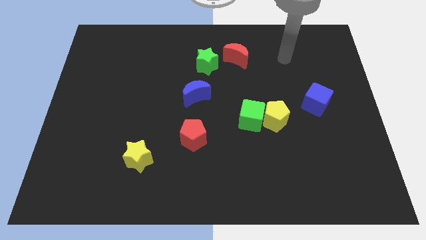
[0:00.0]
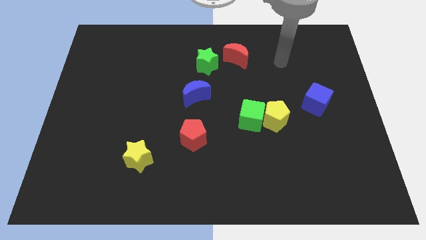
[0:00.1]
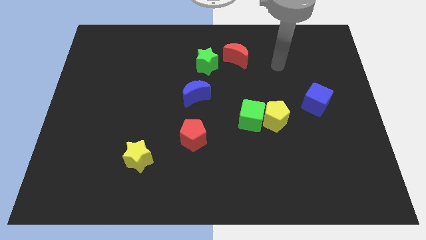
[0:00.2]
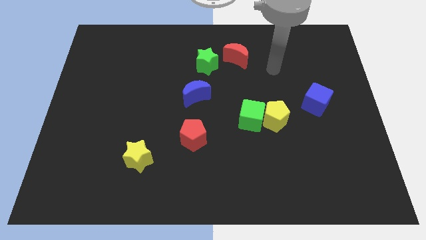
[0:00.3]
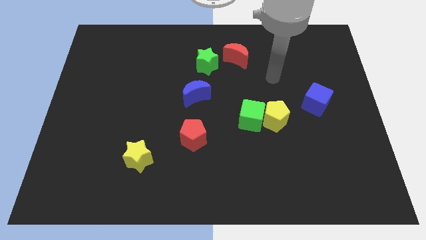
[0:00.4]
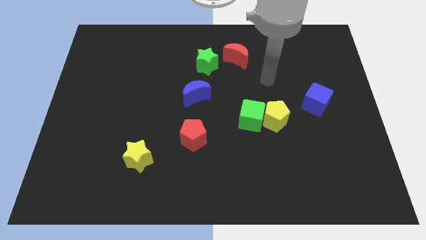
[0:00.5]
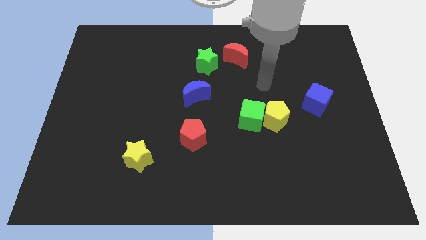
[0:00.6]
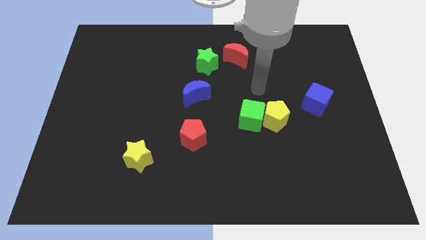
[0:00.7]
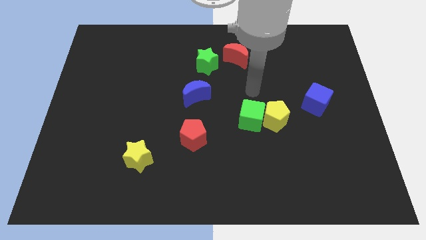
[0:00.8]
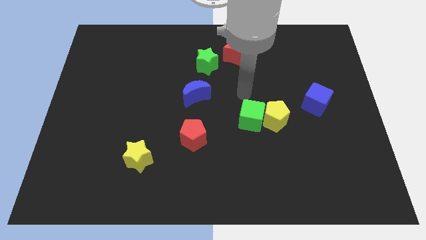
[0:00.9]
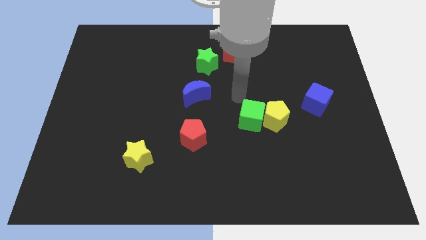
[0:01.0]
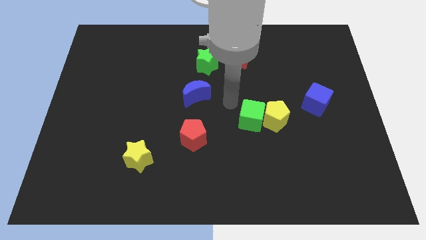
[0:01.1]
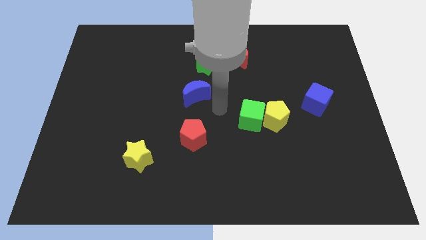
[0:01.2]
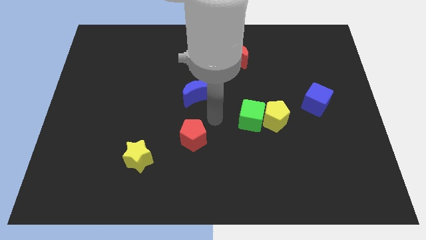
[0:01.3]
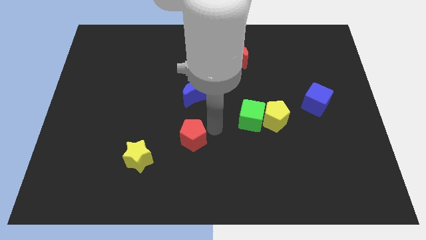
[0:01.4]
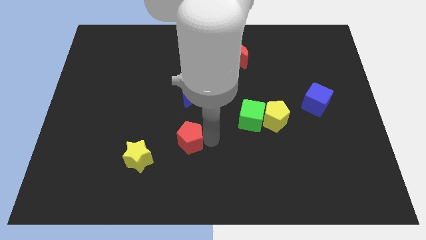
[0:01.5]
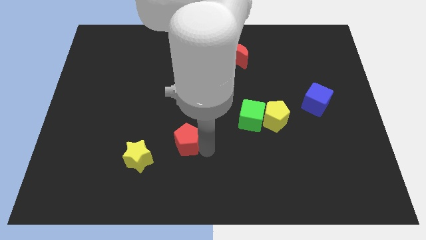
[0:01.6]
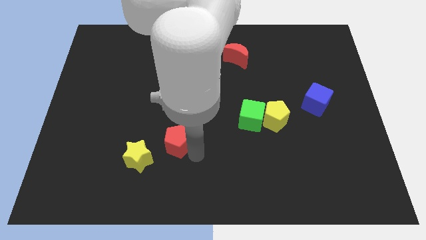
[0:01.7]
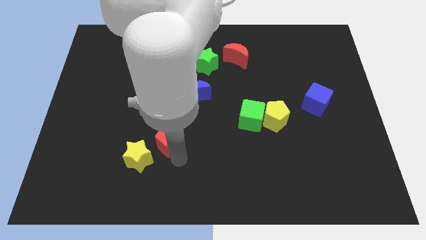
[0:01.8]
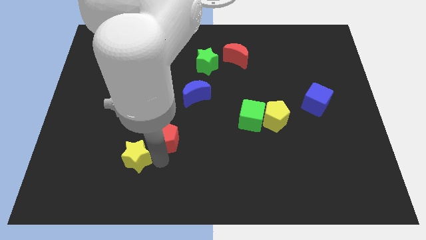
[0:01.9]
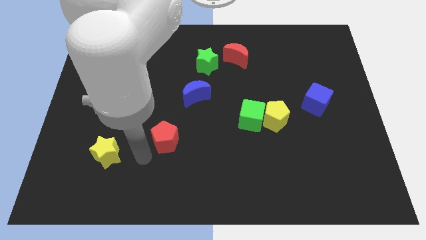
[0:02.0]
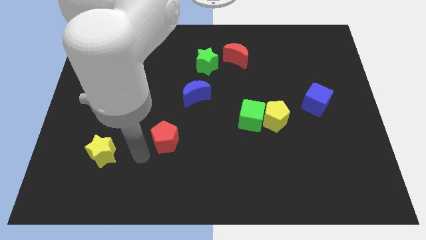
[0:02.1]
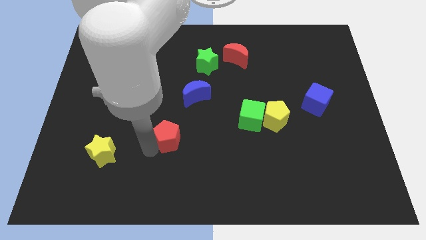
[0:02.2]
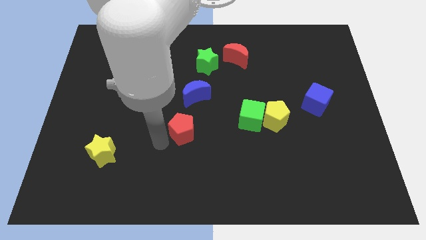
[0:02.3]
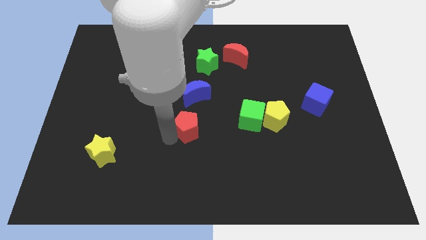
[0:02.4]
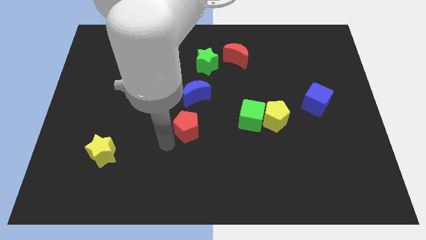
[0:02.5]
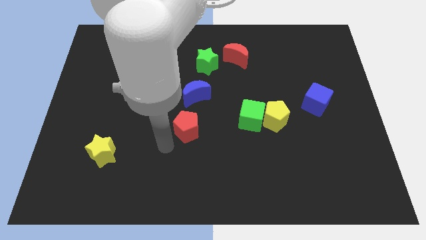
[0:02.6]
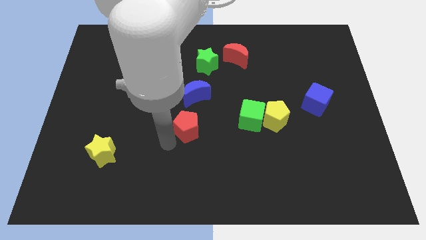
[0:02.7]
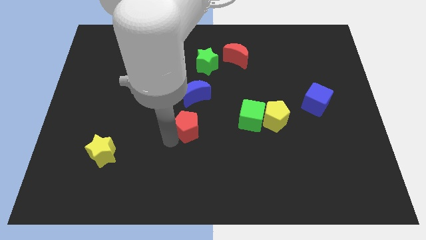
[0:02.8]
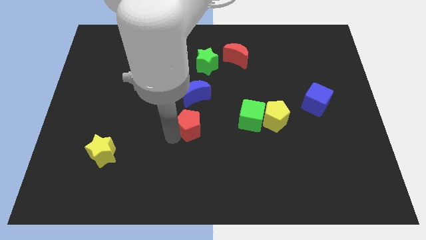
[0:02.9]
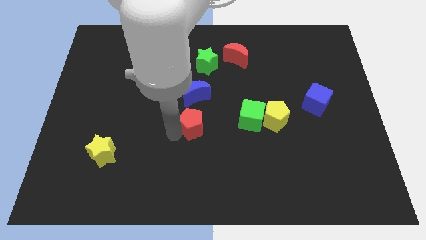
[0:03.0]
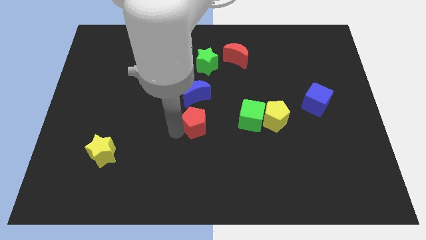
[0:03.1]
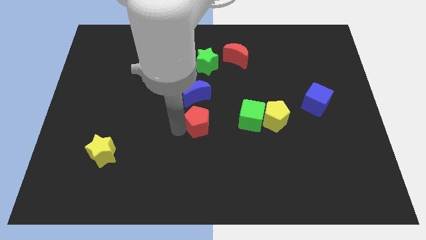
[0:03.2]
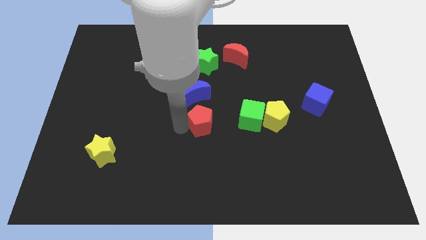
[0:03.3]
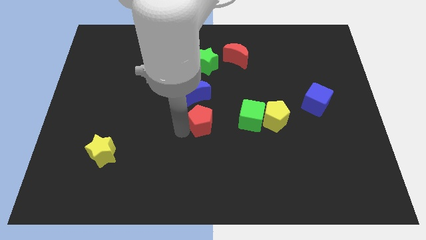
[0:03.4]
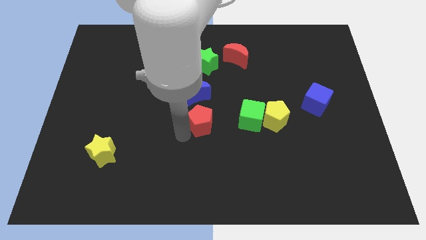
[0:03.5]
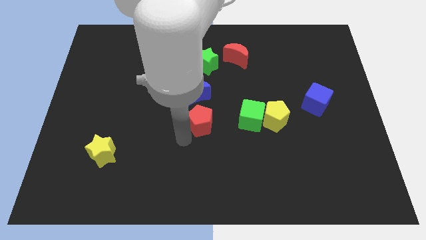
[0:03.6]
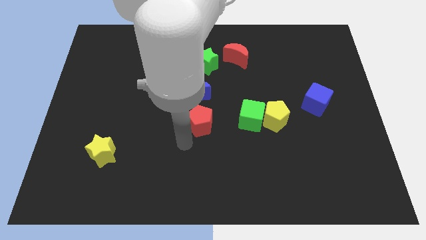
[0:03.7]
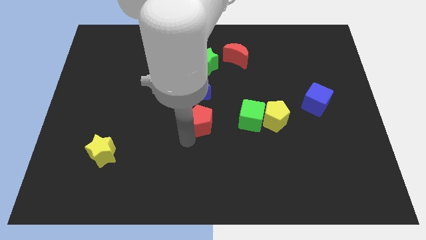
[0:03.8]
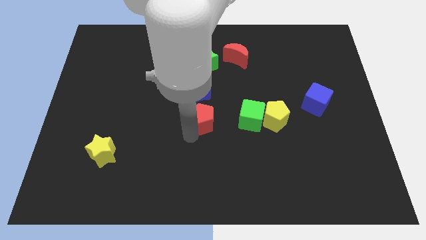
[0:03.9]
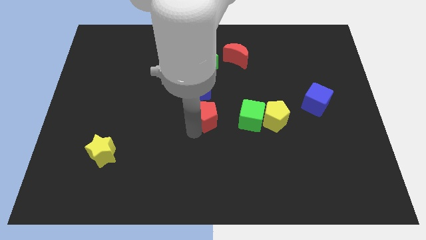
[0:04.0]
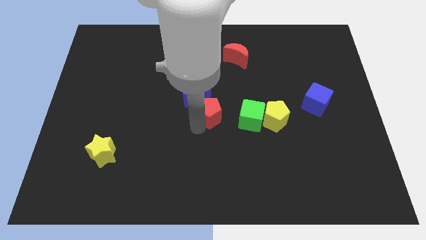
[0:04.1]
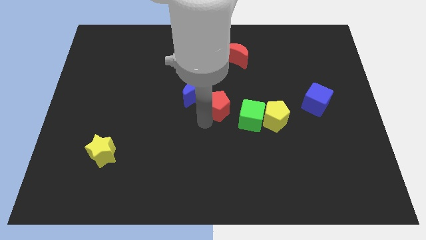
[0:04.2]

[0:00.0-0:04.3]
move the red pentagon upwards somewhat

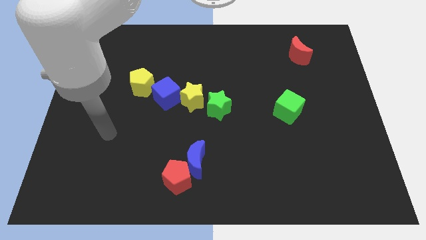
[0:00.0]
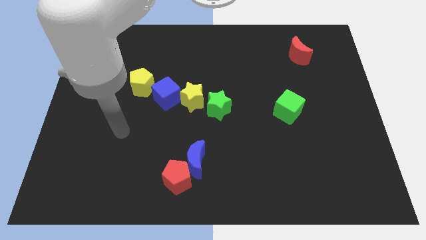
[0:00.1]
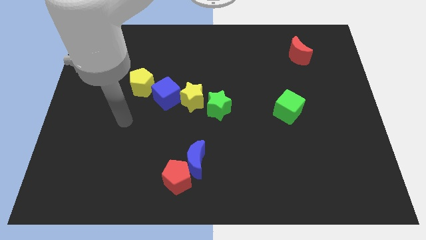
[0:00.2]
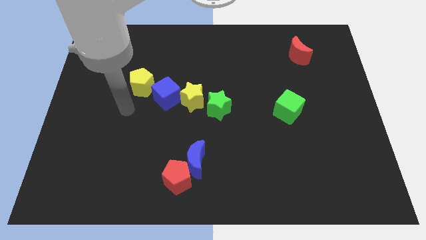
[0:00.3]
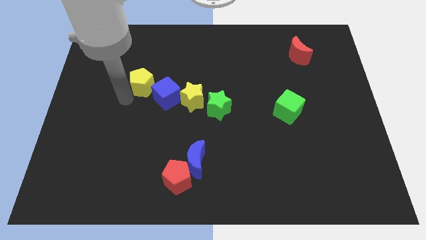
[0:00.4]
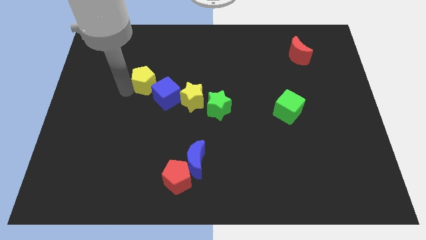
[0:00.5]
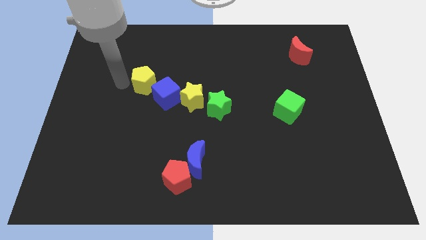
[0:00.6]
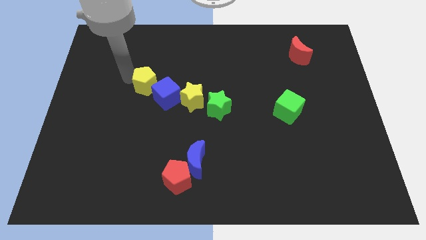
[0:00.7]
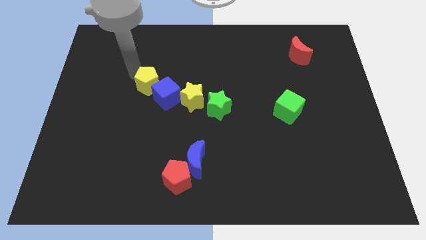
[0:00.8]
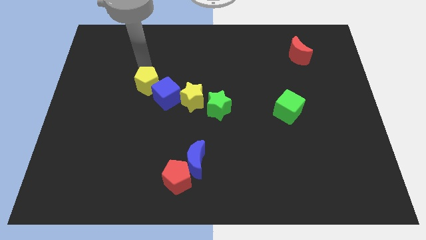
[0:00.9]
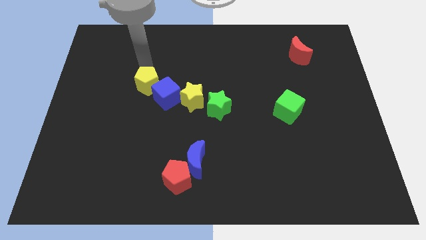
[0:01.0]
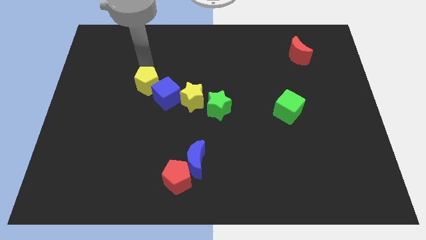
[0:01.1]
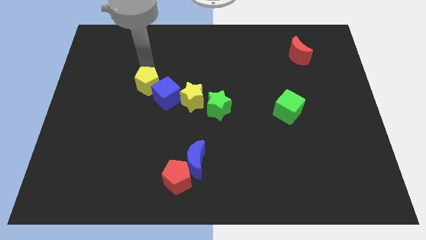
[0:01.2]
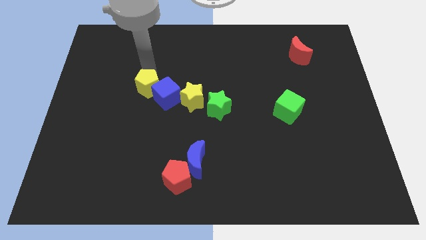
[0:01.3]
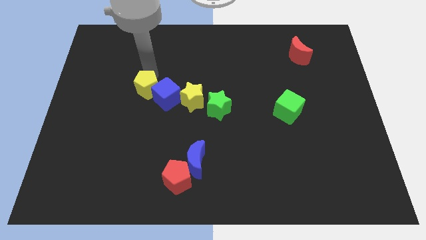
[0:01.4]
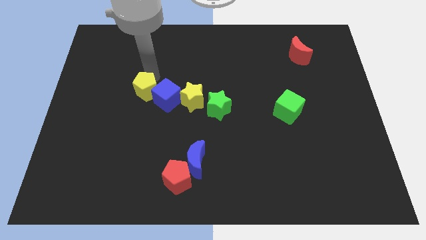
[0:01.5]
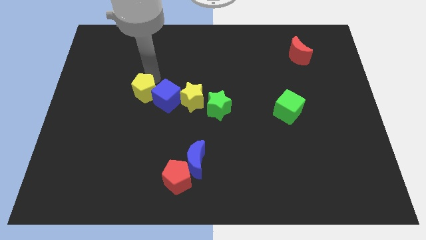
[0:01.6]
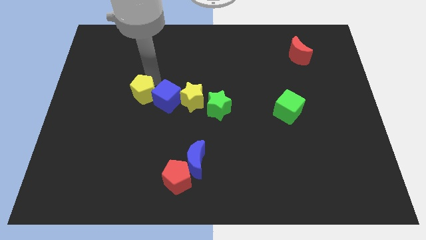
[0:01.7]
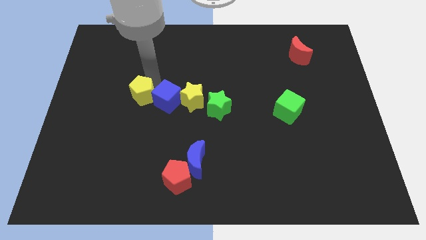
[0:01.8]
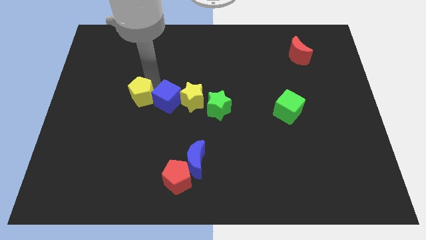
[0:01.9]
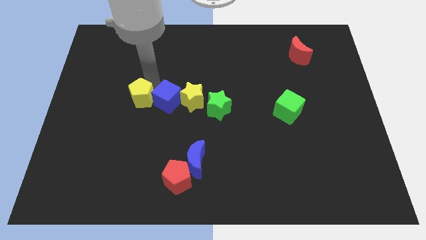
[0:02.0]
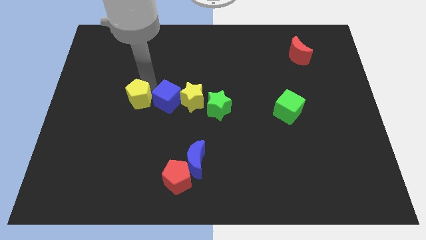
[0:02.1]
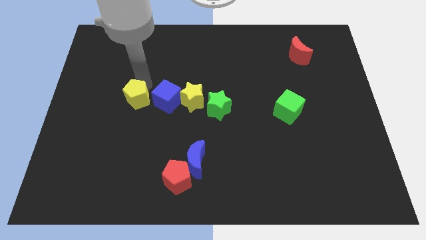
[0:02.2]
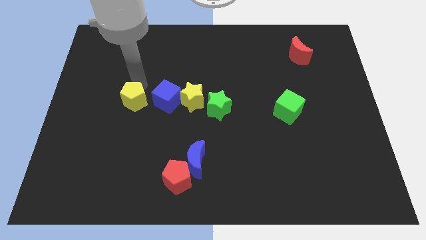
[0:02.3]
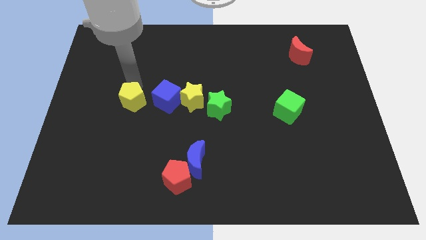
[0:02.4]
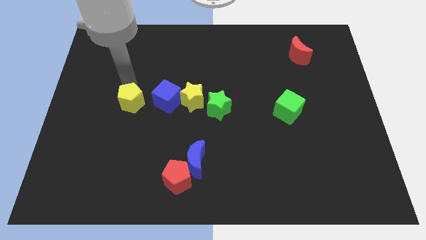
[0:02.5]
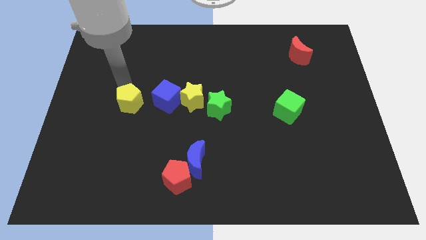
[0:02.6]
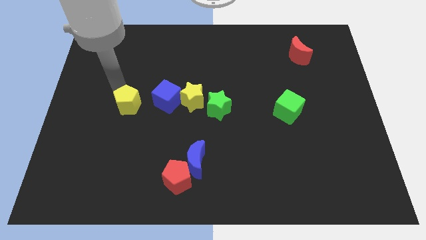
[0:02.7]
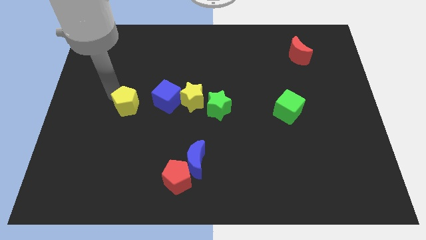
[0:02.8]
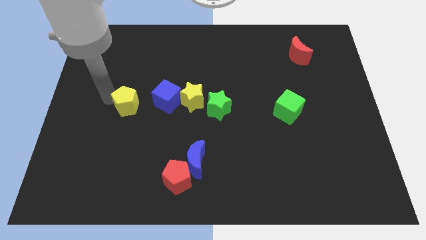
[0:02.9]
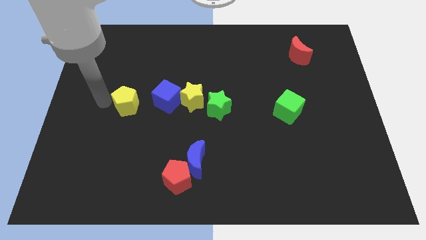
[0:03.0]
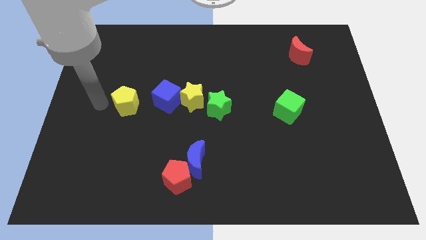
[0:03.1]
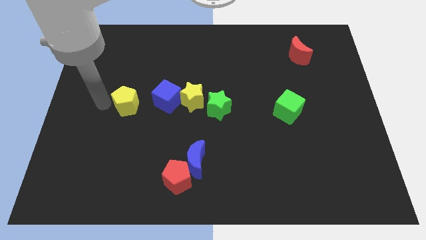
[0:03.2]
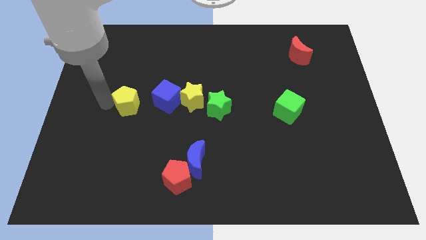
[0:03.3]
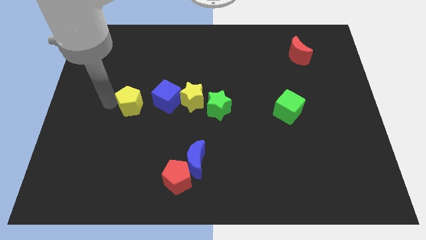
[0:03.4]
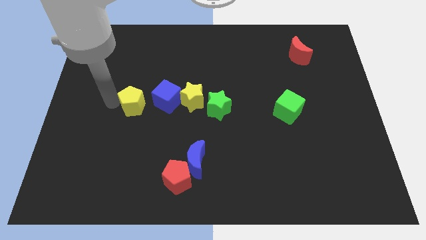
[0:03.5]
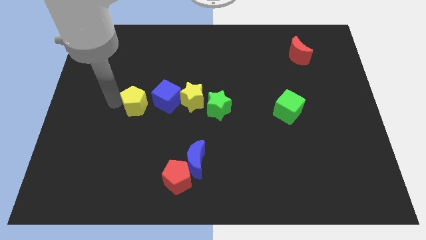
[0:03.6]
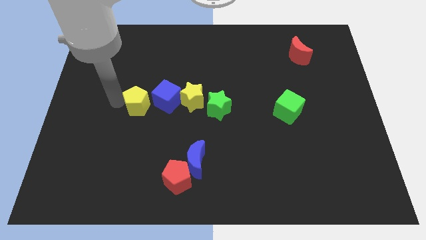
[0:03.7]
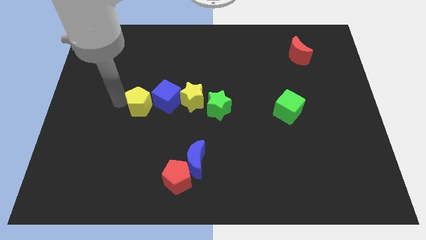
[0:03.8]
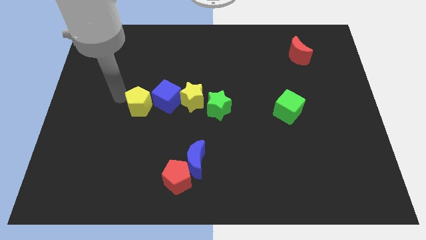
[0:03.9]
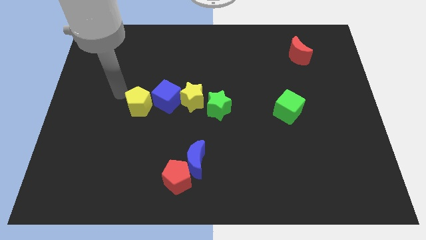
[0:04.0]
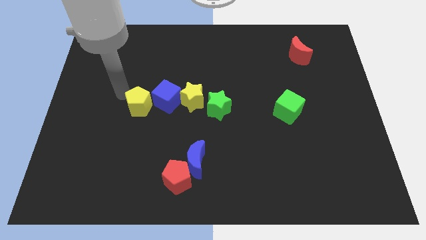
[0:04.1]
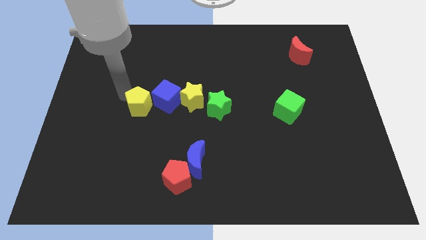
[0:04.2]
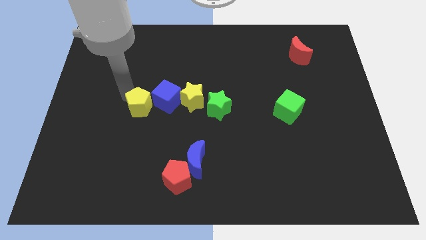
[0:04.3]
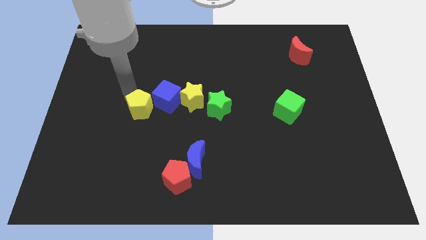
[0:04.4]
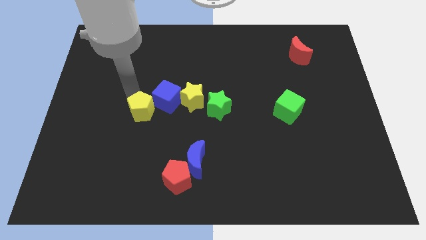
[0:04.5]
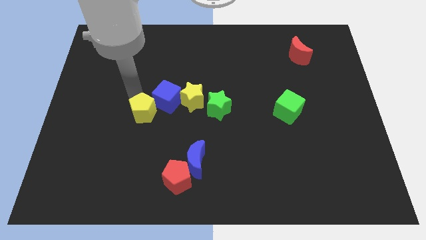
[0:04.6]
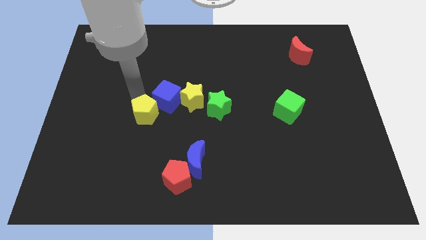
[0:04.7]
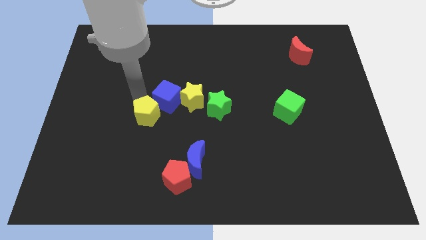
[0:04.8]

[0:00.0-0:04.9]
move the yellow pentagon diagonally down and to the right a bit
